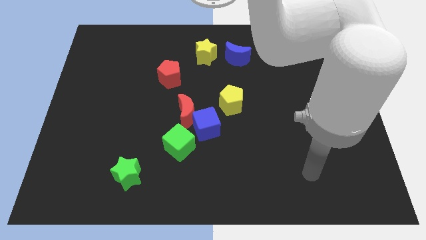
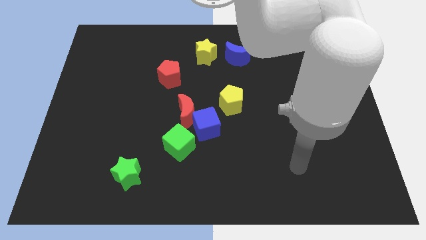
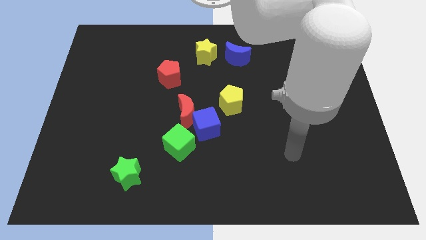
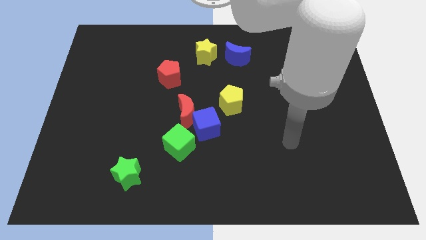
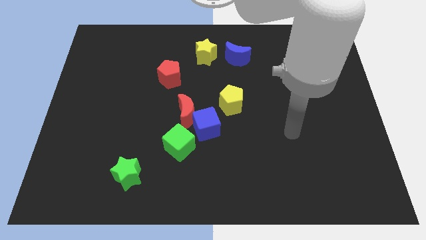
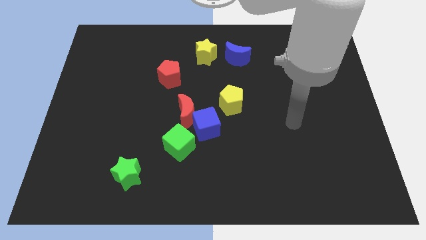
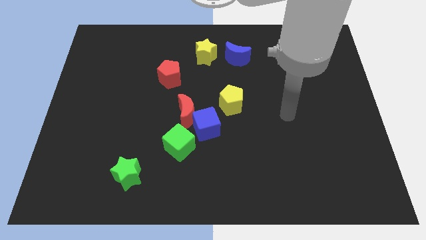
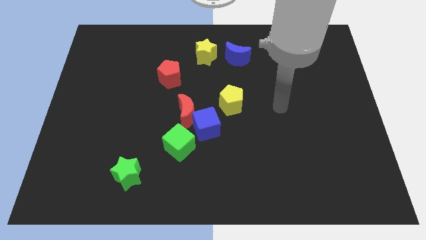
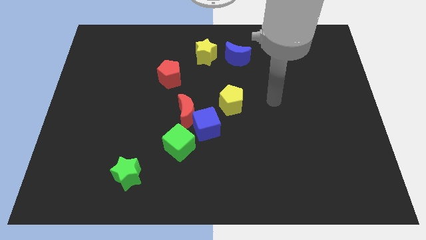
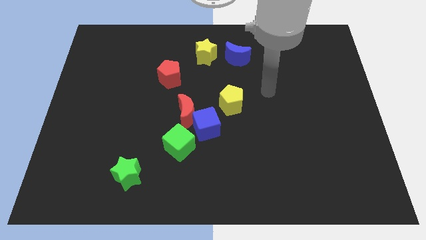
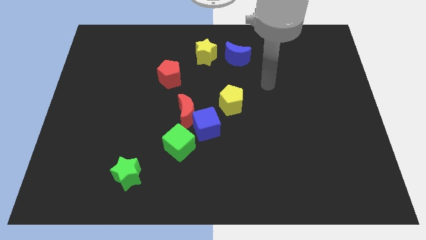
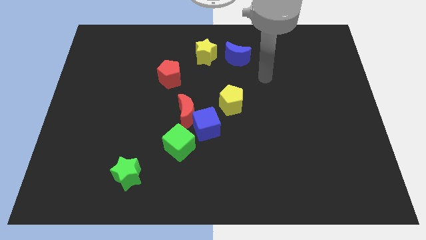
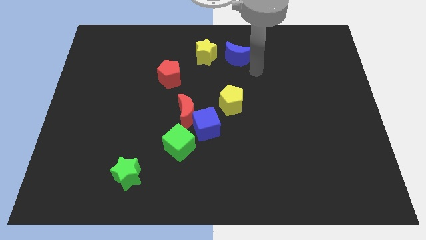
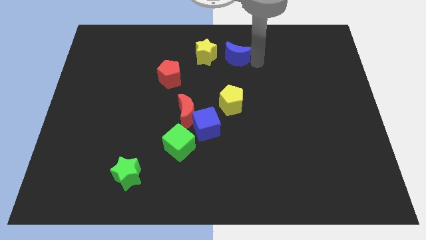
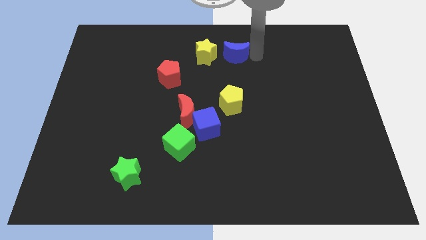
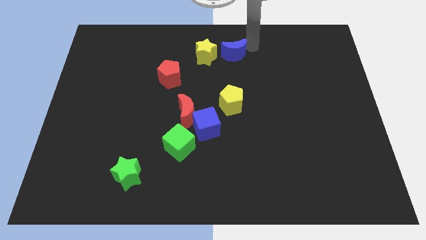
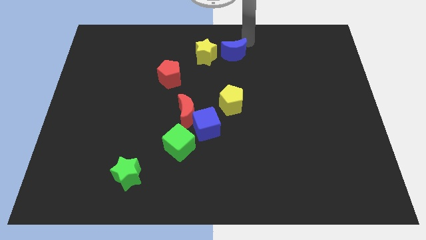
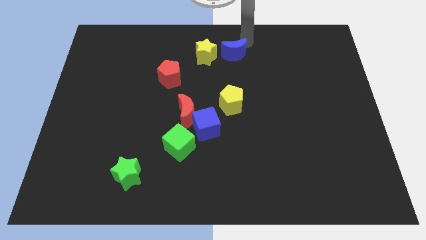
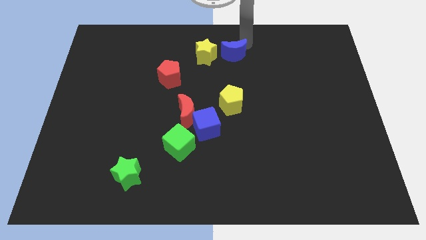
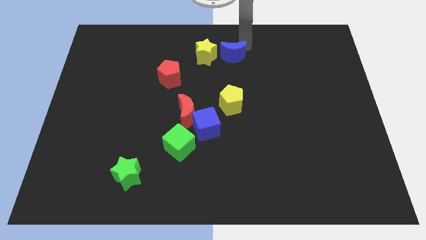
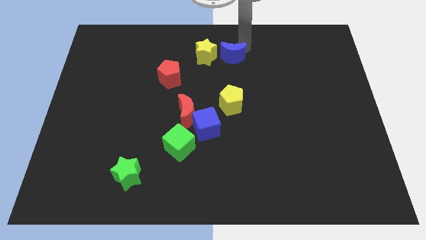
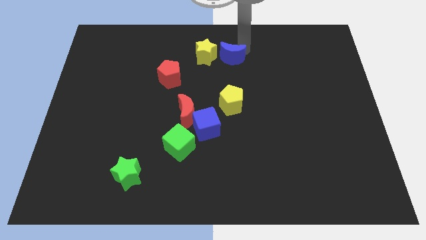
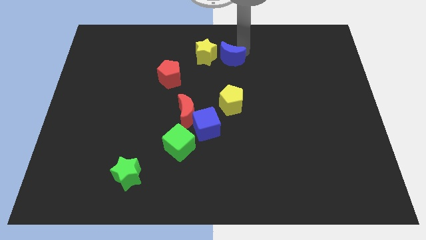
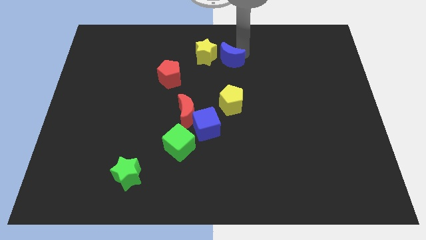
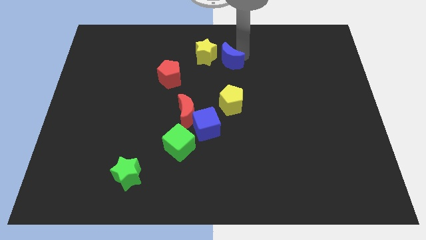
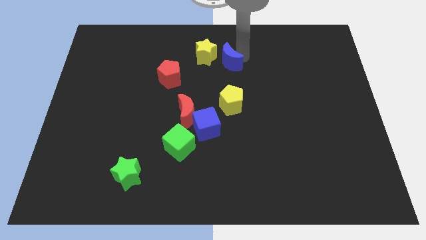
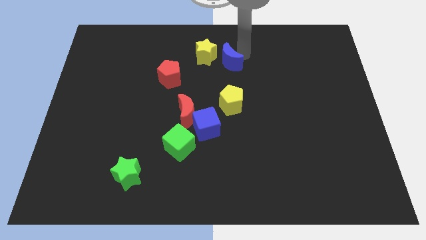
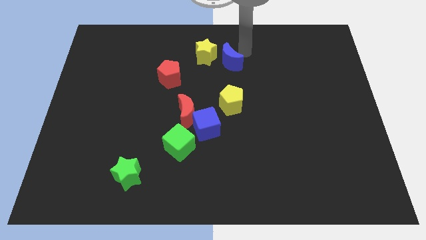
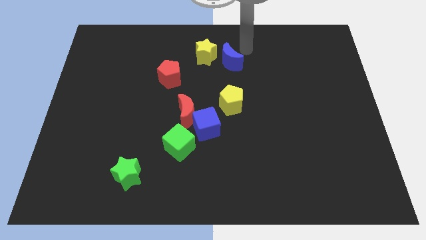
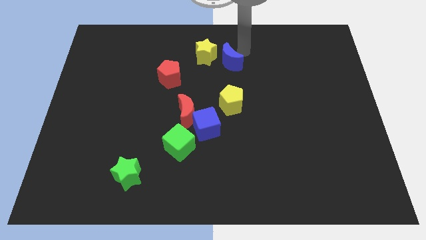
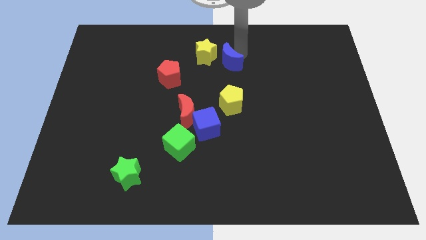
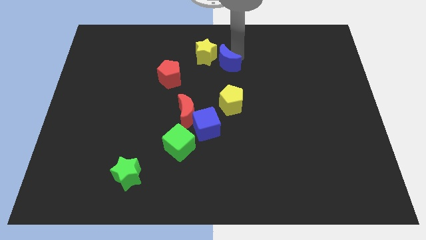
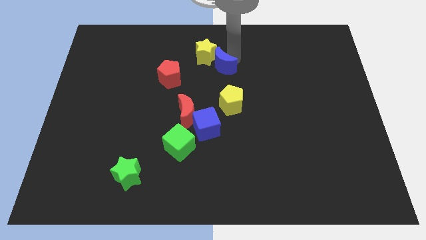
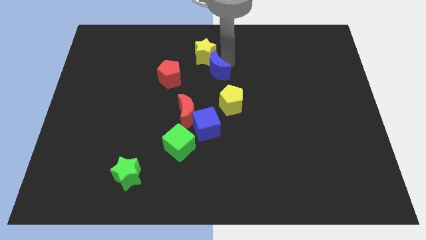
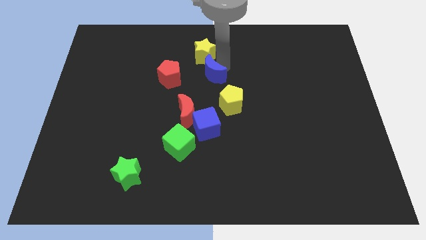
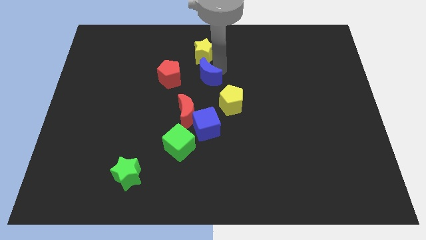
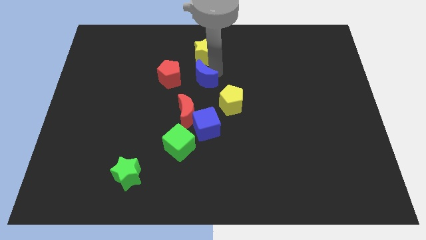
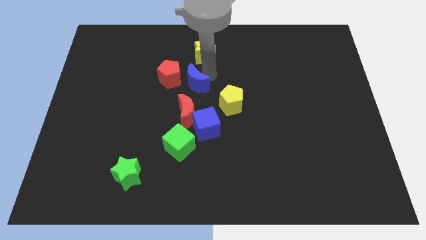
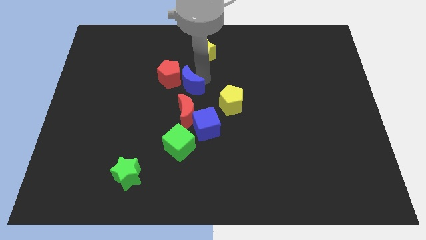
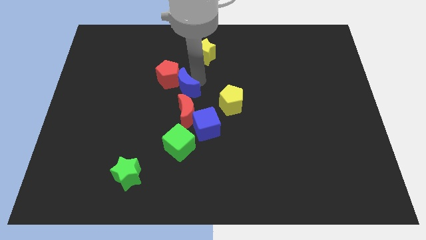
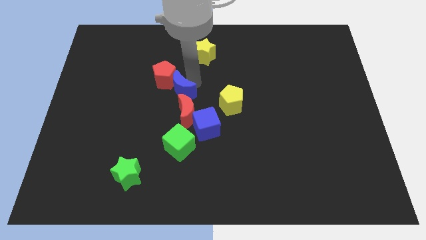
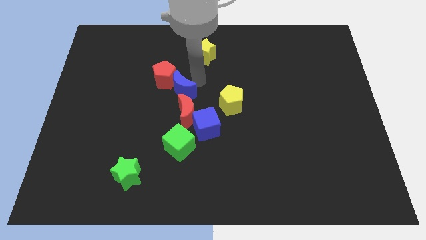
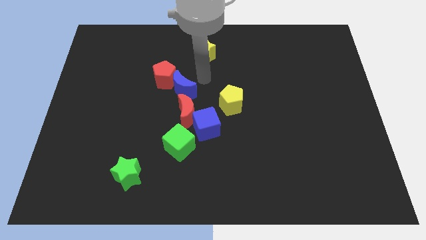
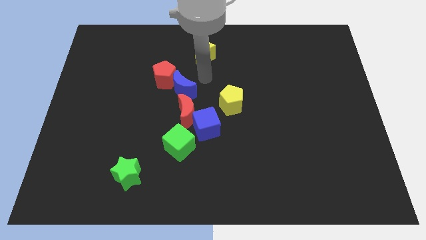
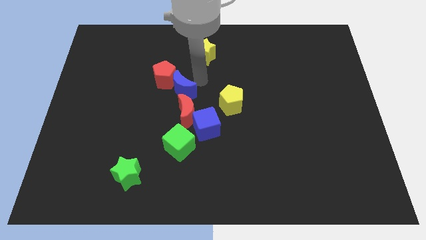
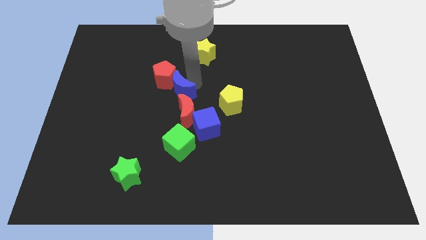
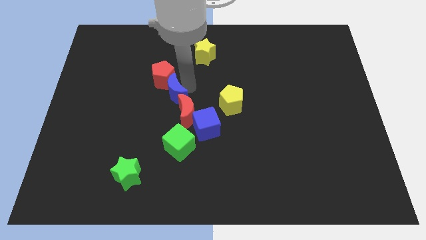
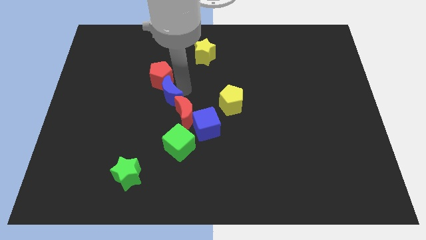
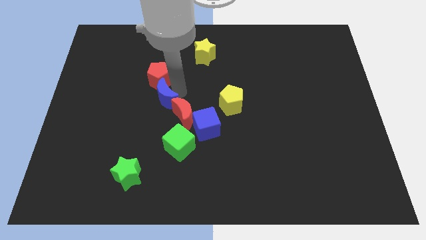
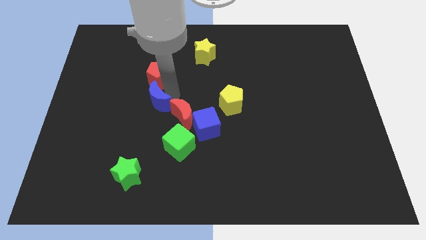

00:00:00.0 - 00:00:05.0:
push the blue moon to the left side of the red moon

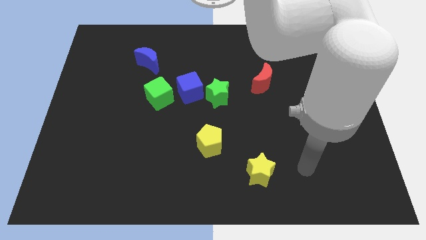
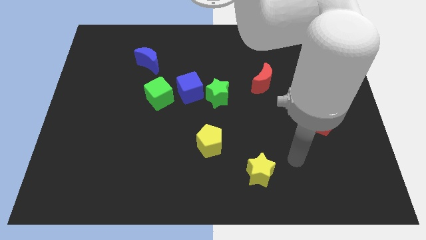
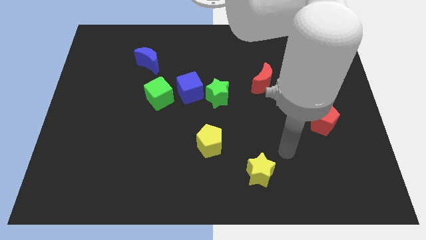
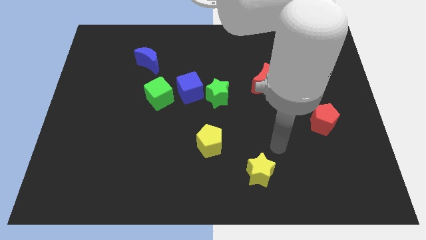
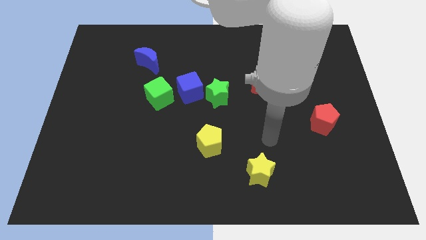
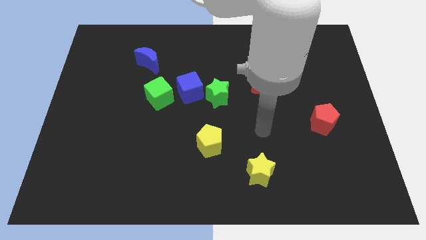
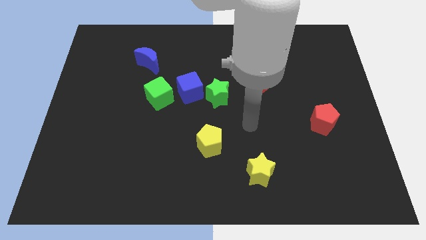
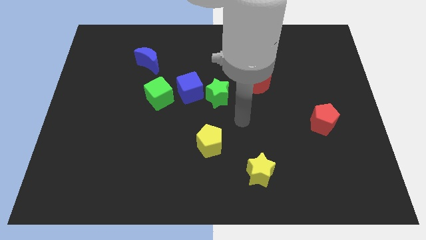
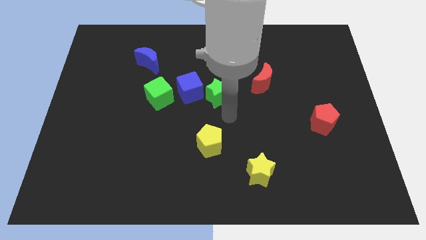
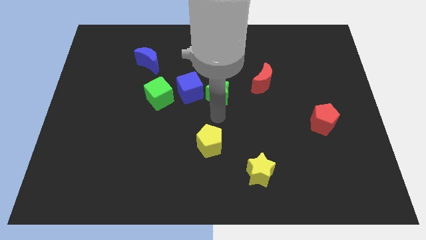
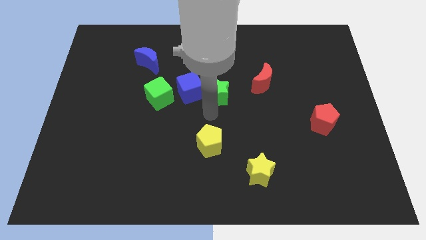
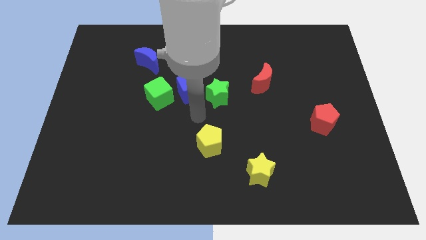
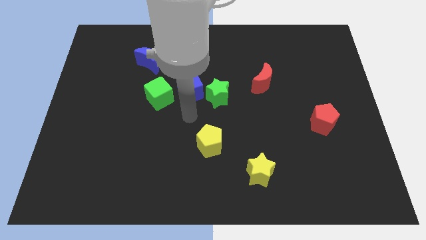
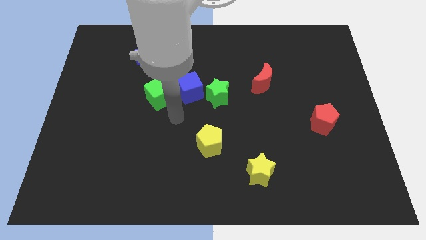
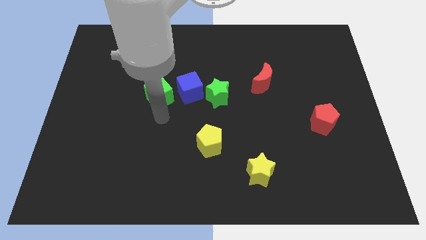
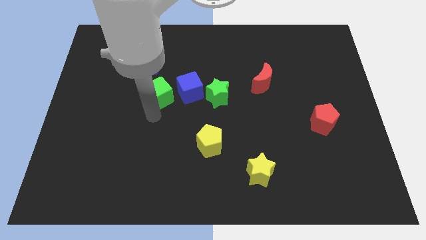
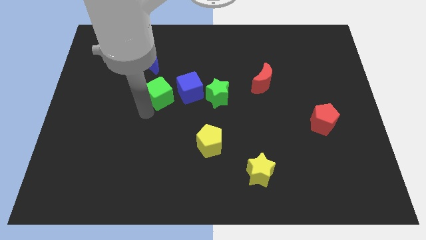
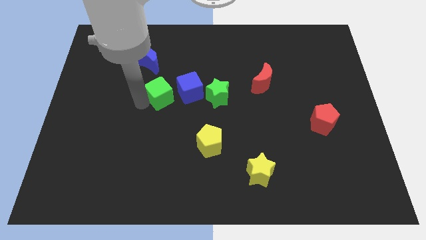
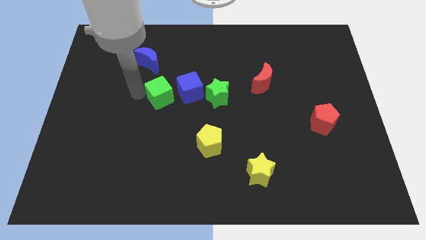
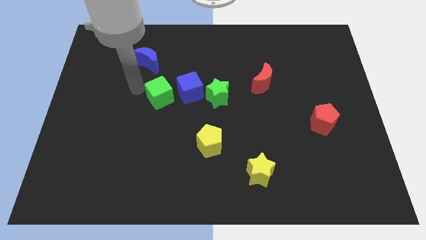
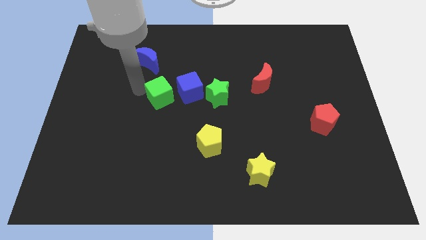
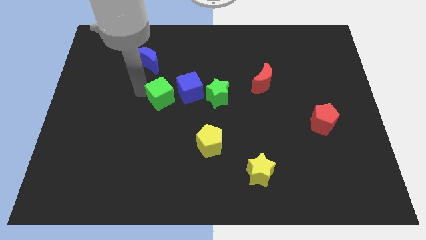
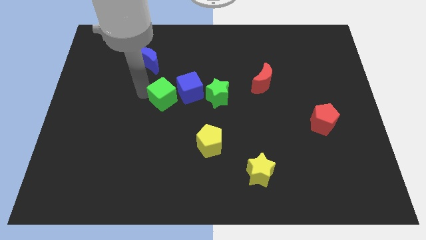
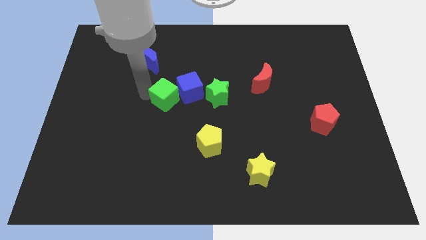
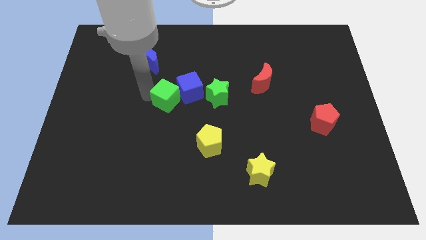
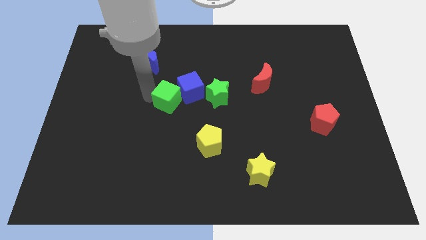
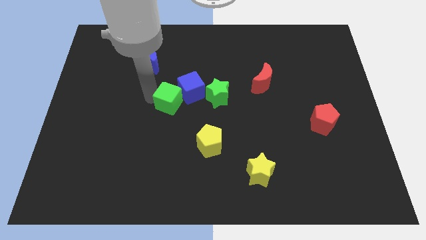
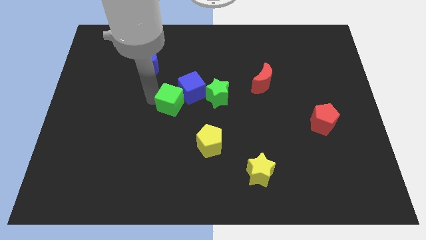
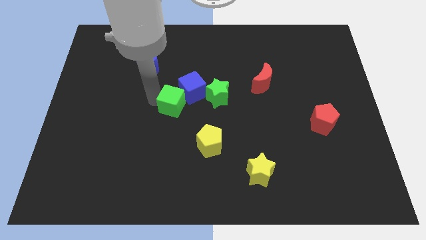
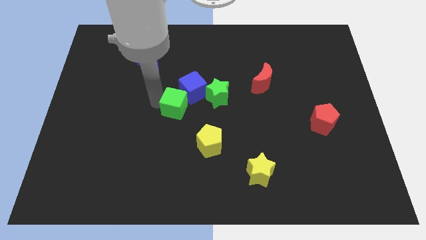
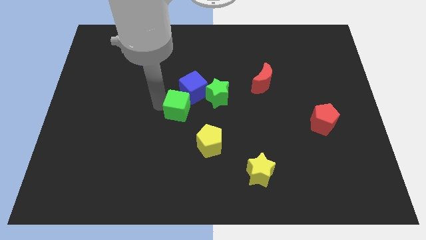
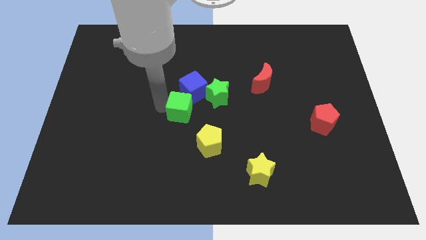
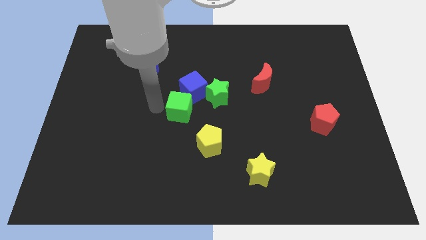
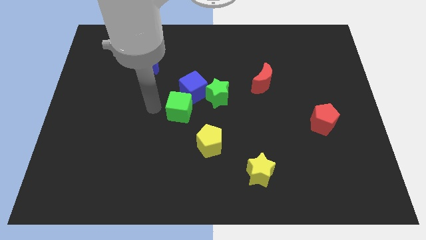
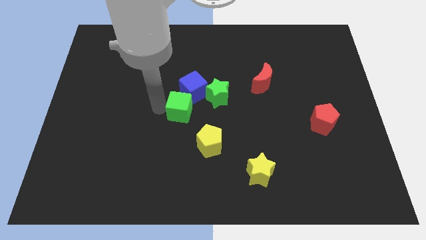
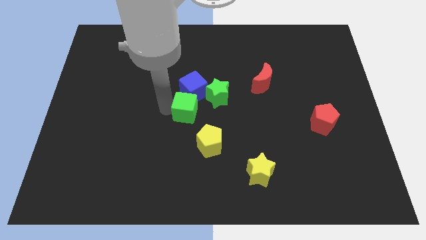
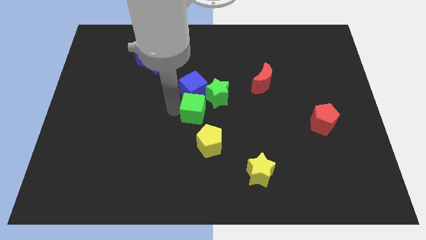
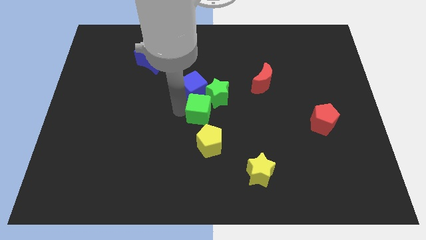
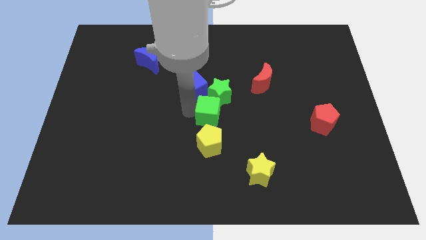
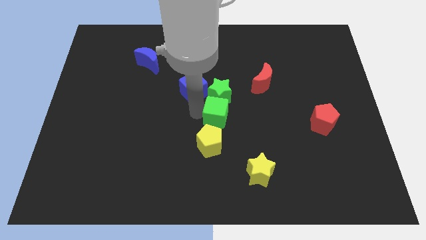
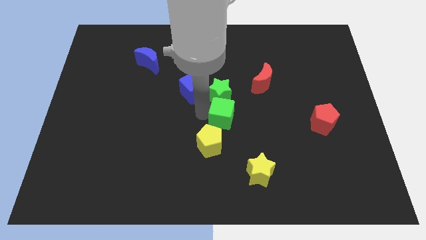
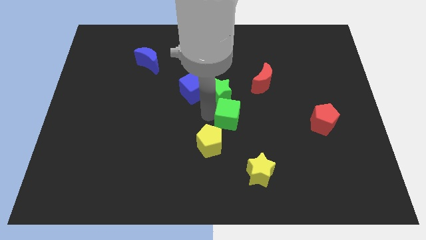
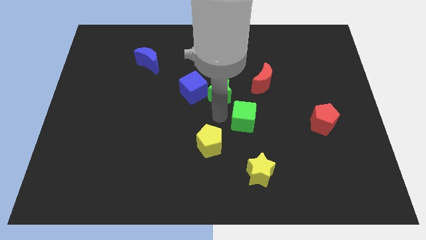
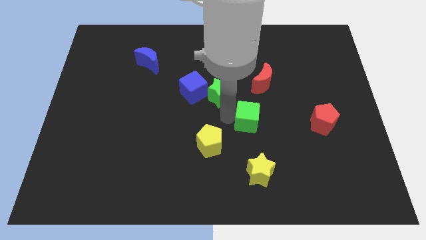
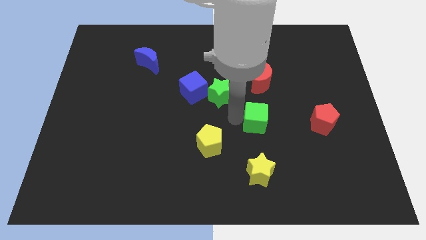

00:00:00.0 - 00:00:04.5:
move the green cube left of the red pentagon
